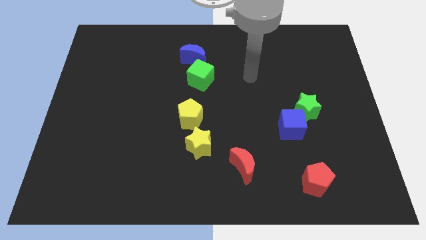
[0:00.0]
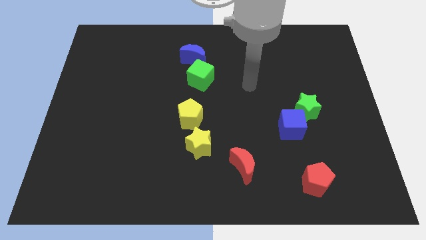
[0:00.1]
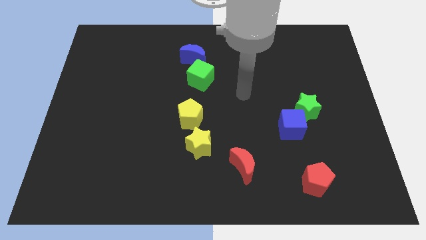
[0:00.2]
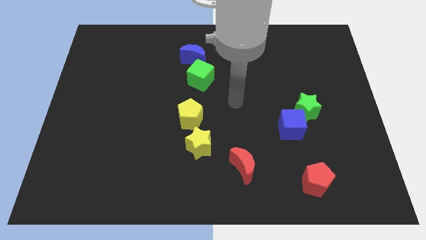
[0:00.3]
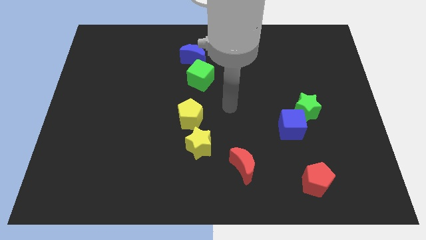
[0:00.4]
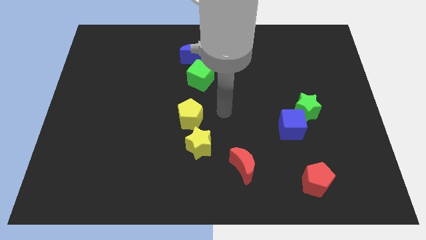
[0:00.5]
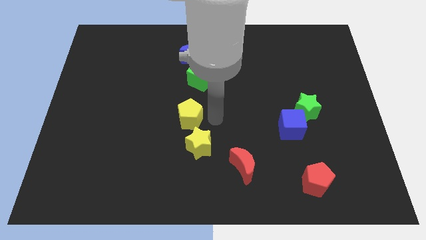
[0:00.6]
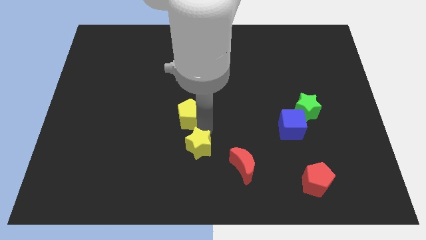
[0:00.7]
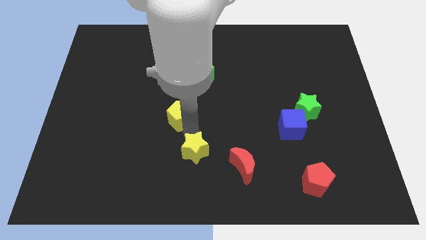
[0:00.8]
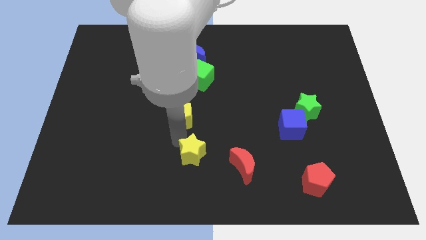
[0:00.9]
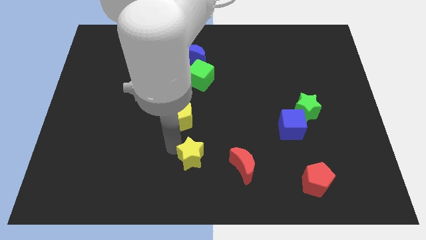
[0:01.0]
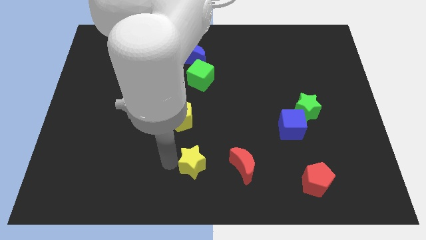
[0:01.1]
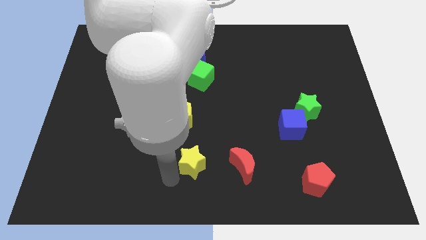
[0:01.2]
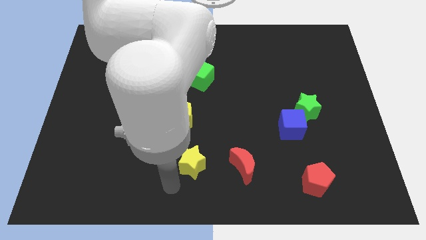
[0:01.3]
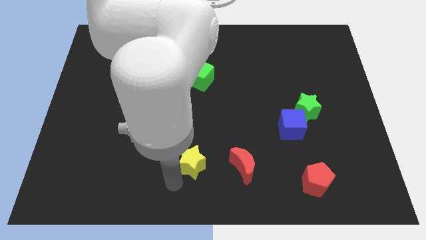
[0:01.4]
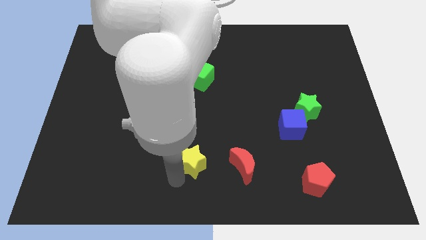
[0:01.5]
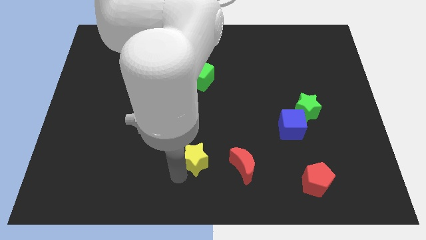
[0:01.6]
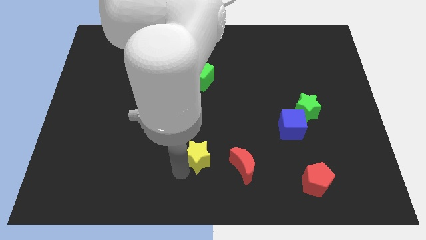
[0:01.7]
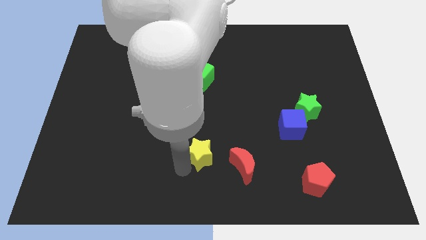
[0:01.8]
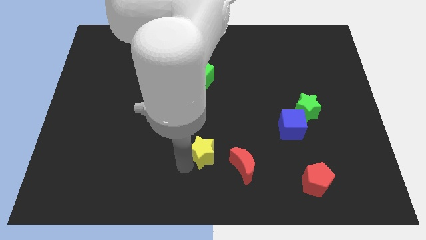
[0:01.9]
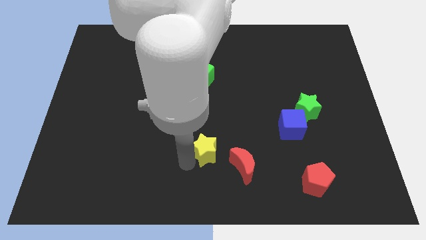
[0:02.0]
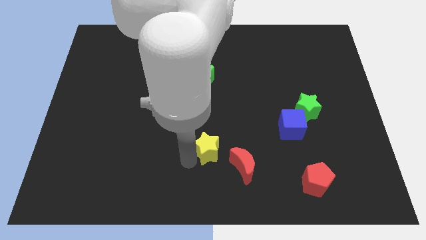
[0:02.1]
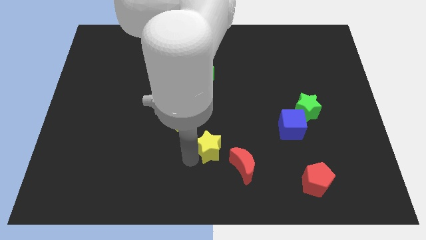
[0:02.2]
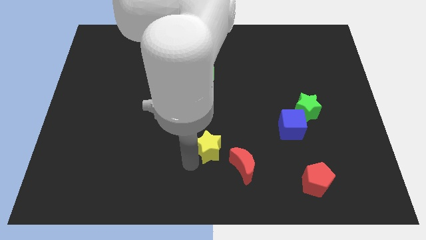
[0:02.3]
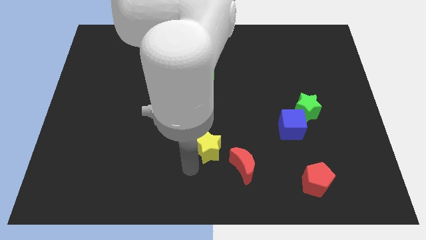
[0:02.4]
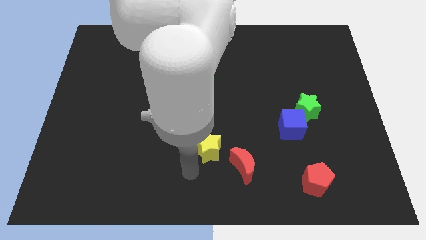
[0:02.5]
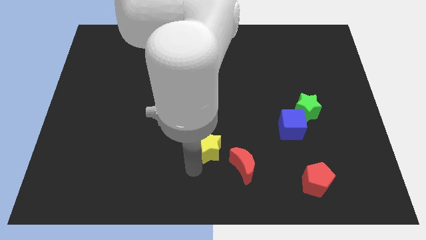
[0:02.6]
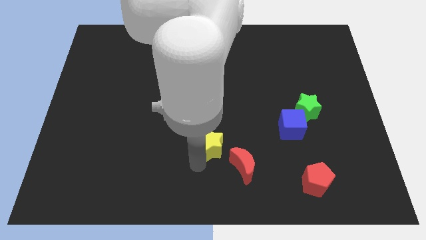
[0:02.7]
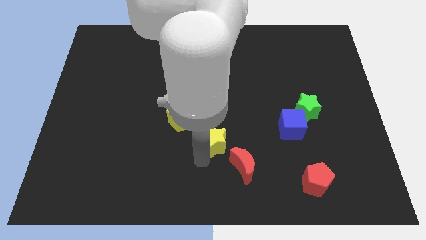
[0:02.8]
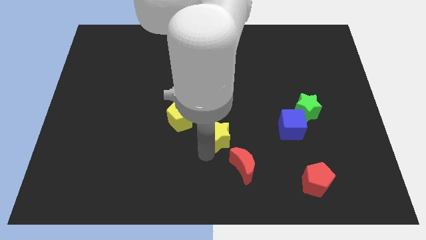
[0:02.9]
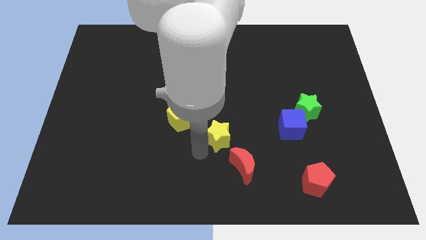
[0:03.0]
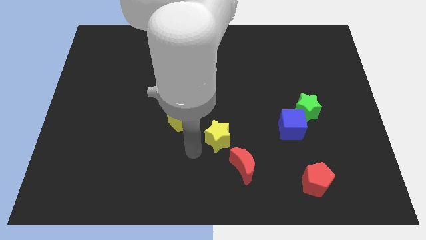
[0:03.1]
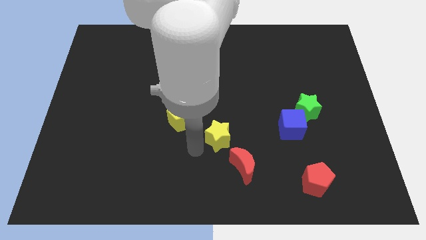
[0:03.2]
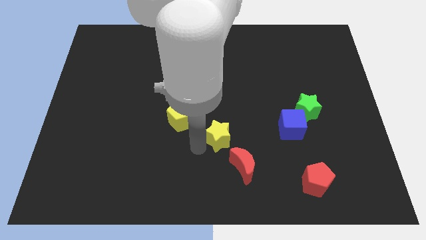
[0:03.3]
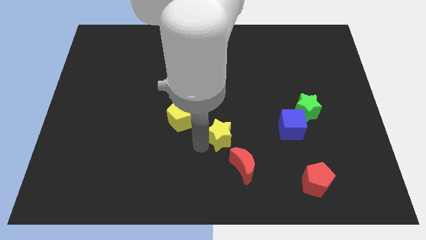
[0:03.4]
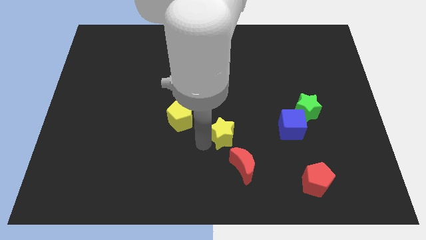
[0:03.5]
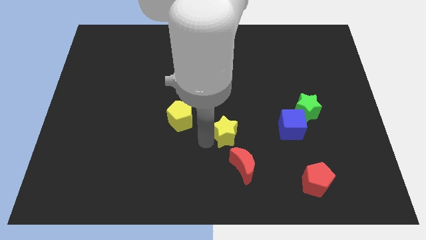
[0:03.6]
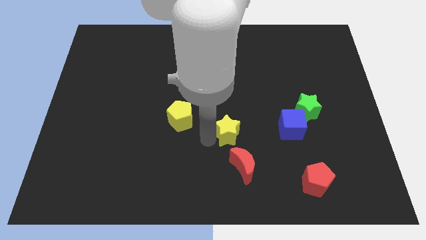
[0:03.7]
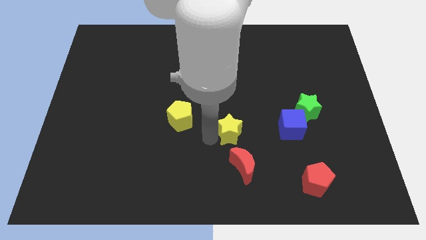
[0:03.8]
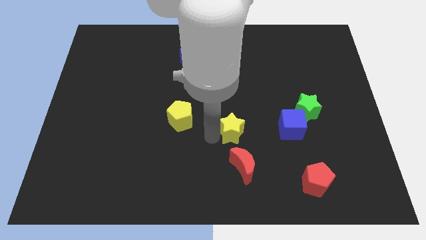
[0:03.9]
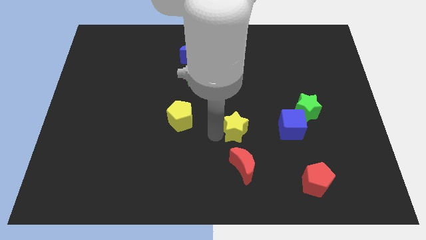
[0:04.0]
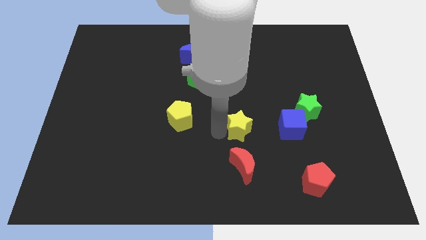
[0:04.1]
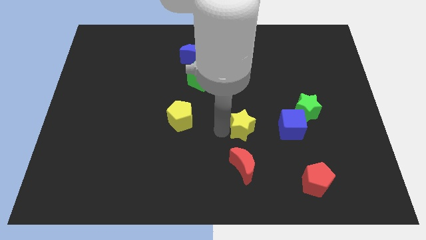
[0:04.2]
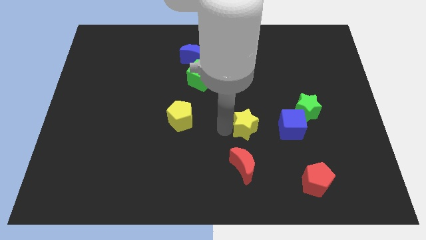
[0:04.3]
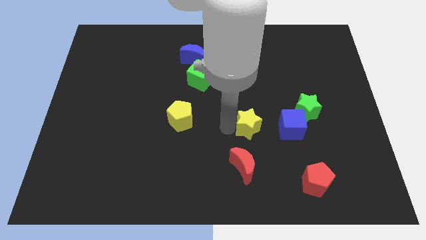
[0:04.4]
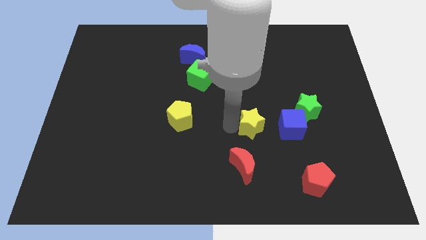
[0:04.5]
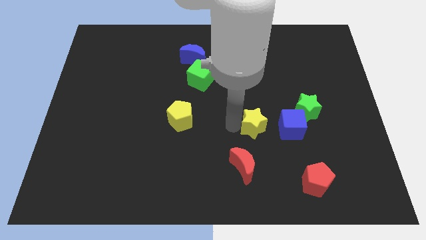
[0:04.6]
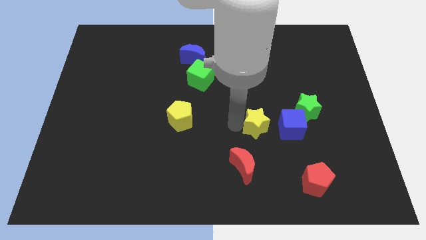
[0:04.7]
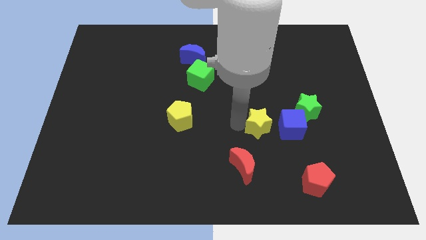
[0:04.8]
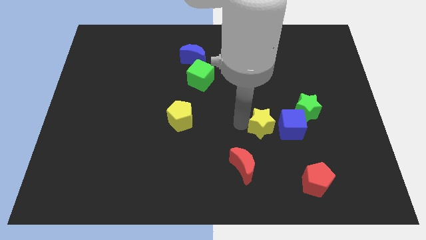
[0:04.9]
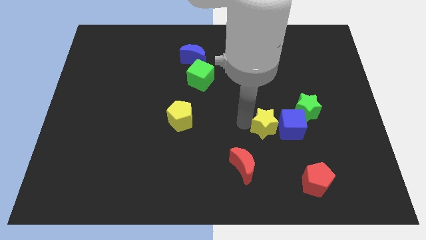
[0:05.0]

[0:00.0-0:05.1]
move the yellow star towards the blue cube

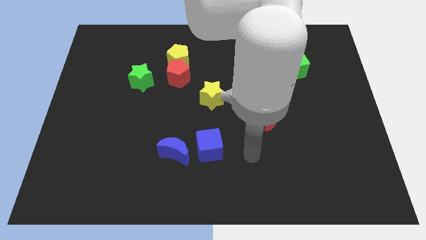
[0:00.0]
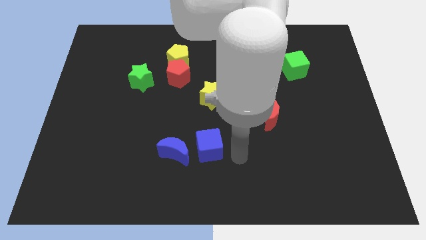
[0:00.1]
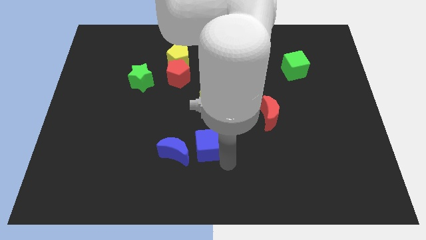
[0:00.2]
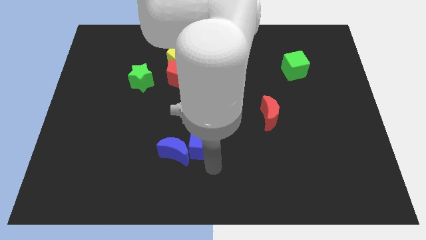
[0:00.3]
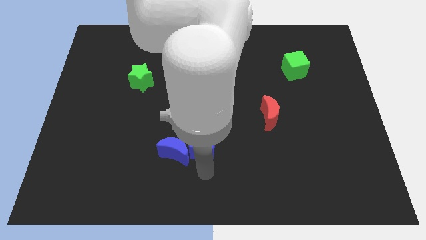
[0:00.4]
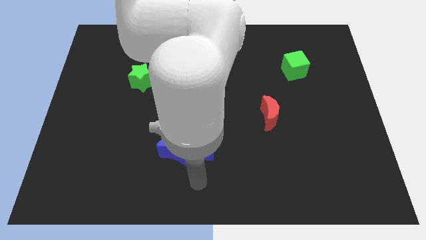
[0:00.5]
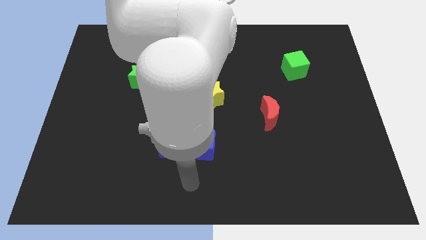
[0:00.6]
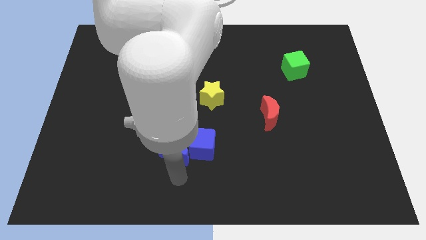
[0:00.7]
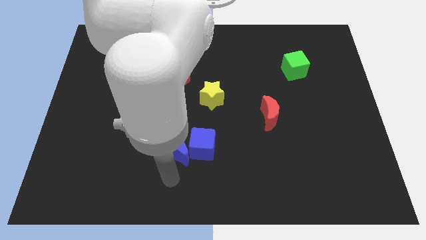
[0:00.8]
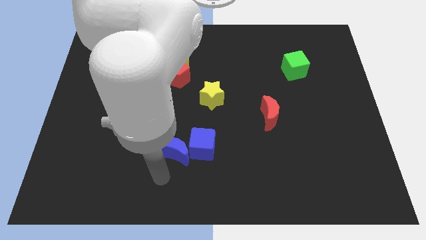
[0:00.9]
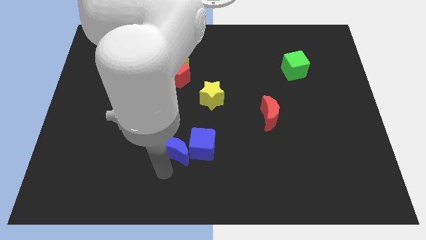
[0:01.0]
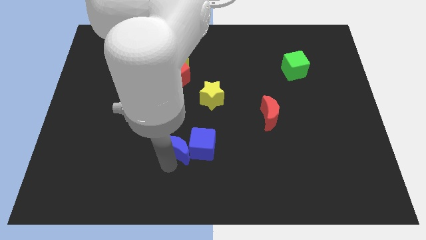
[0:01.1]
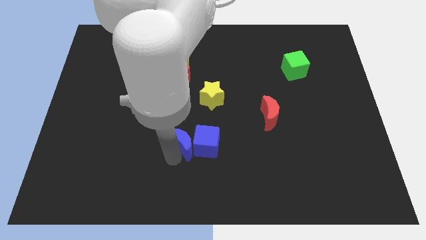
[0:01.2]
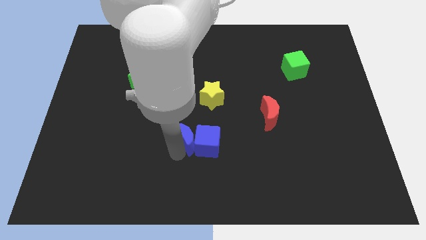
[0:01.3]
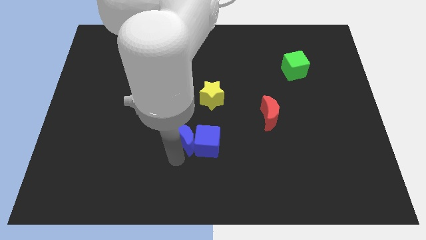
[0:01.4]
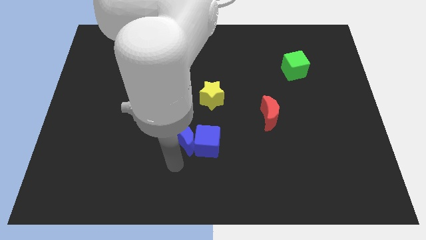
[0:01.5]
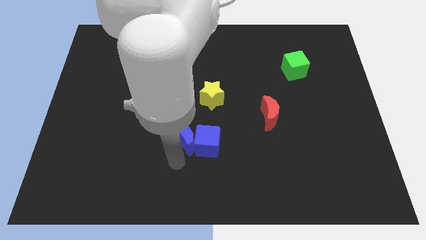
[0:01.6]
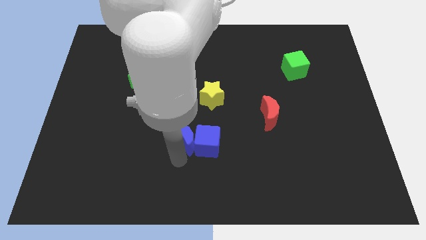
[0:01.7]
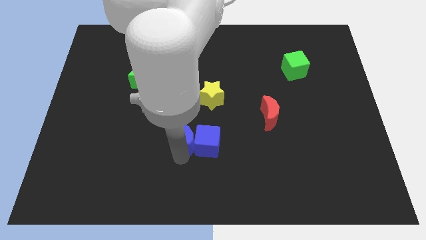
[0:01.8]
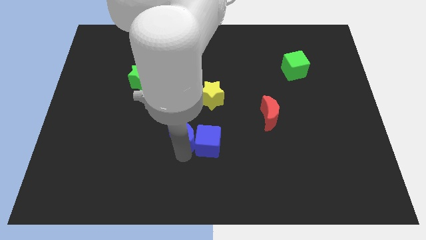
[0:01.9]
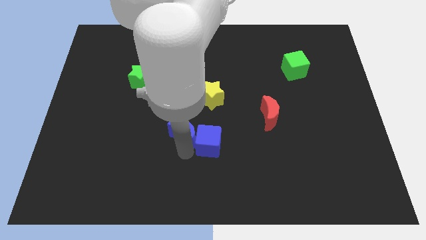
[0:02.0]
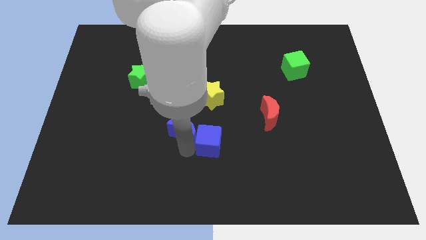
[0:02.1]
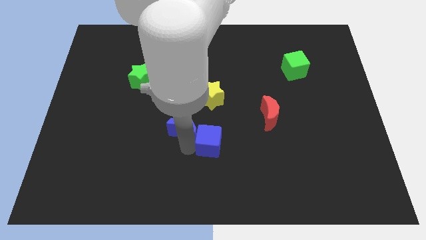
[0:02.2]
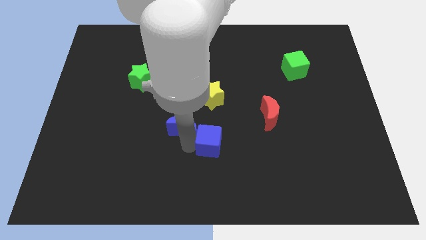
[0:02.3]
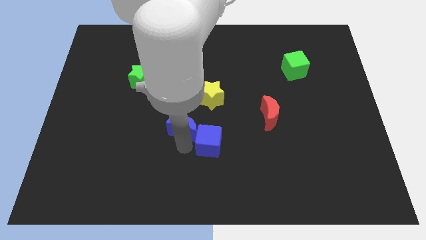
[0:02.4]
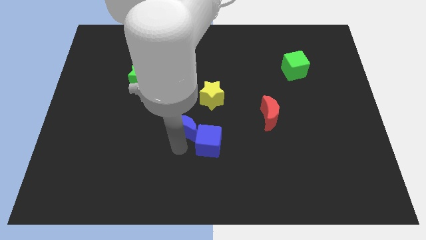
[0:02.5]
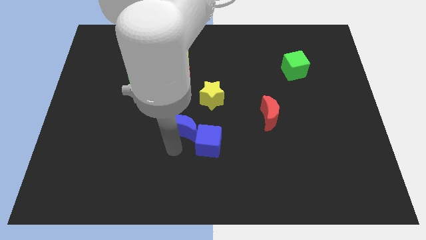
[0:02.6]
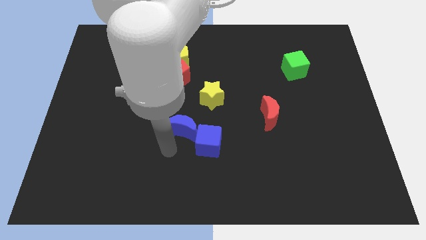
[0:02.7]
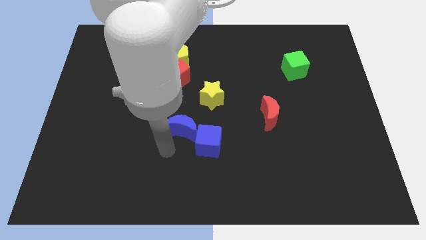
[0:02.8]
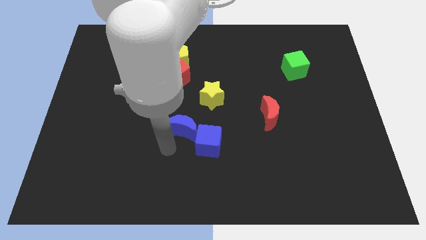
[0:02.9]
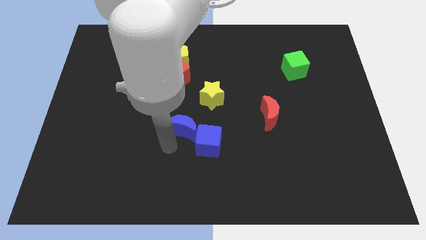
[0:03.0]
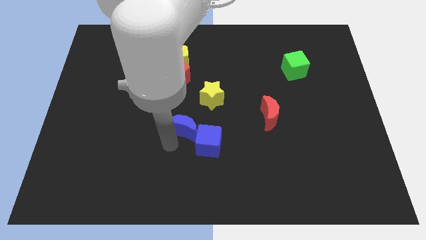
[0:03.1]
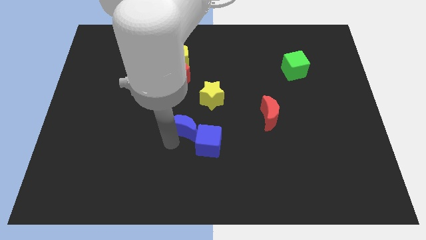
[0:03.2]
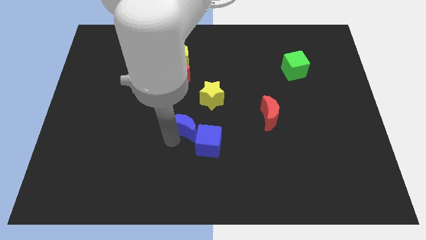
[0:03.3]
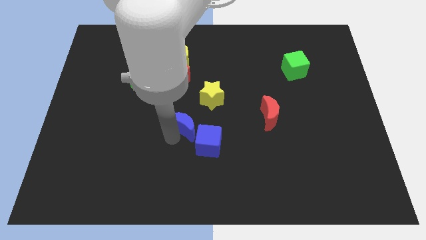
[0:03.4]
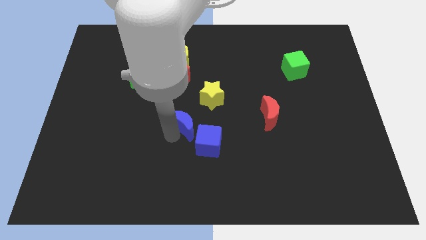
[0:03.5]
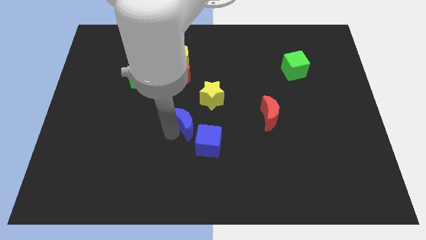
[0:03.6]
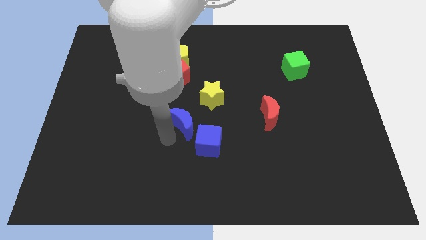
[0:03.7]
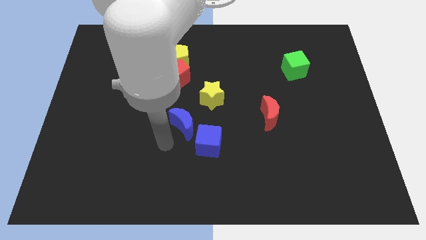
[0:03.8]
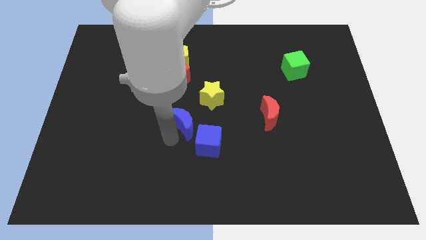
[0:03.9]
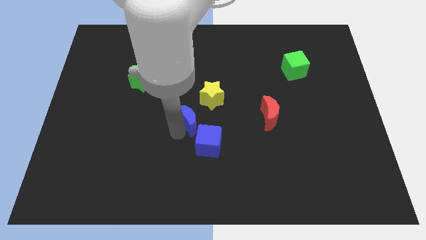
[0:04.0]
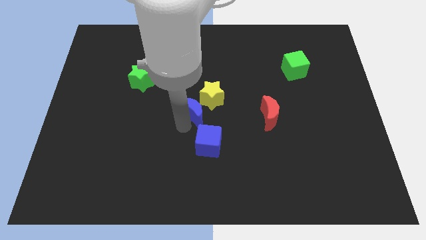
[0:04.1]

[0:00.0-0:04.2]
put the blue moon to the yellow star
